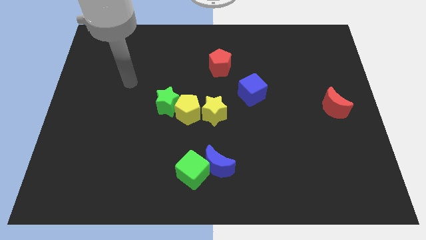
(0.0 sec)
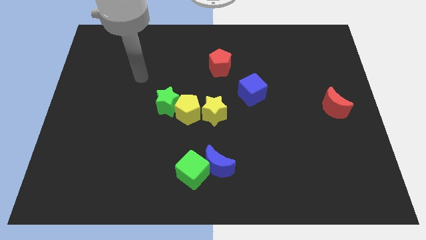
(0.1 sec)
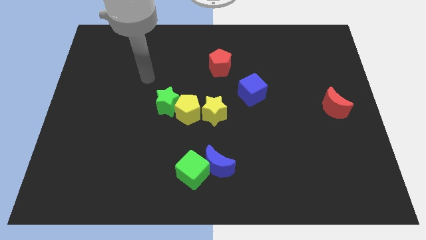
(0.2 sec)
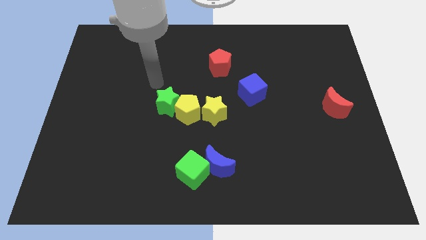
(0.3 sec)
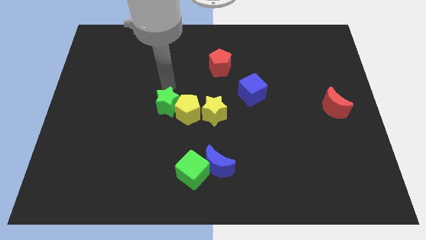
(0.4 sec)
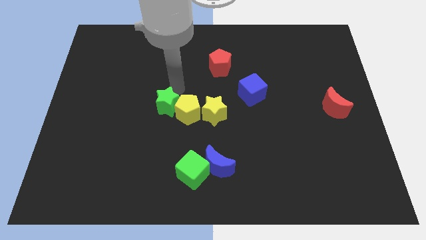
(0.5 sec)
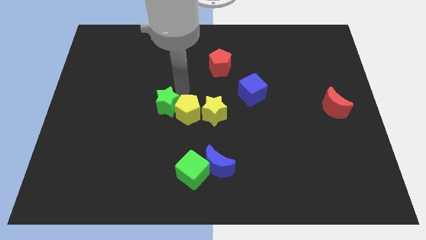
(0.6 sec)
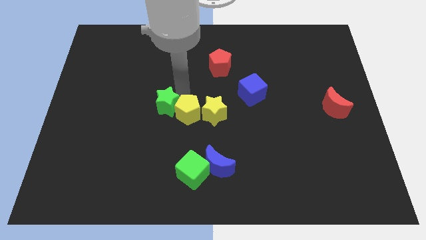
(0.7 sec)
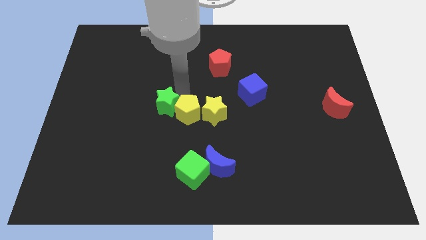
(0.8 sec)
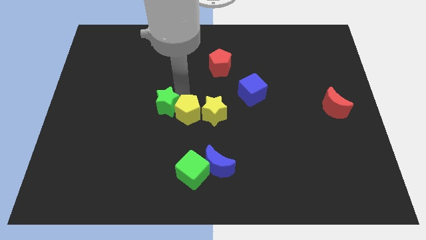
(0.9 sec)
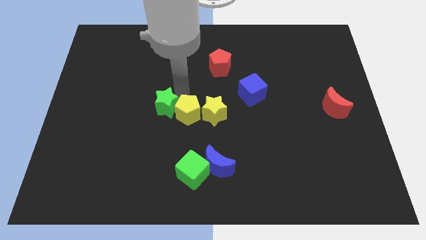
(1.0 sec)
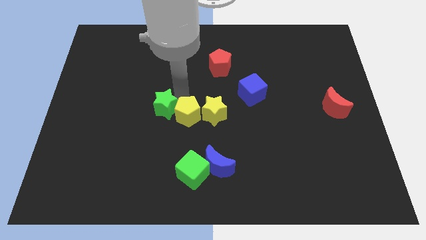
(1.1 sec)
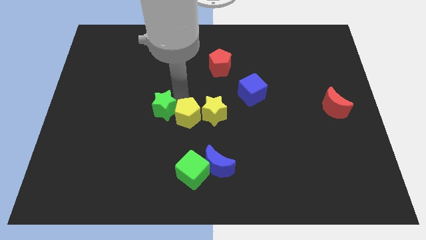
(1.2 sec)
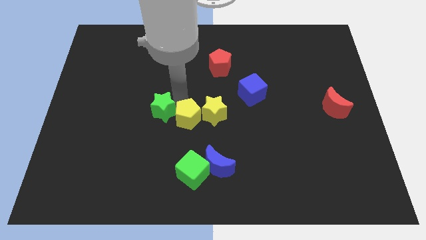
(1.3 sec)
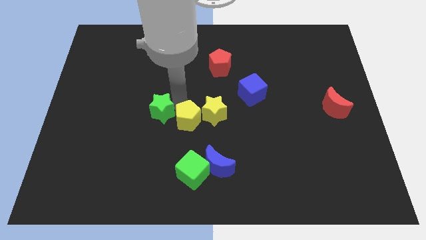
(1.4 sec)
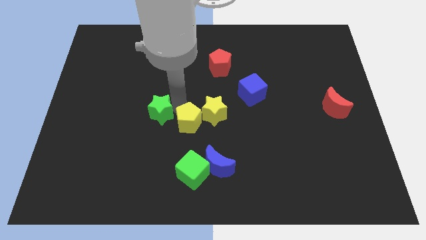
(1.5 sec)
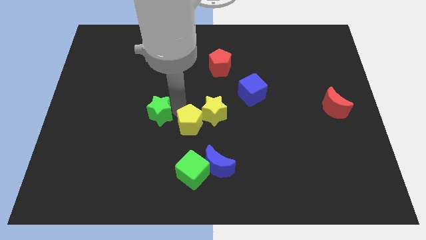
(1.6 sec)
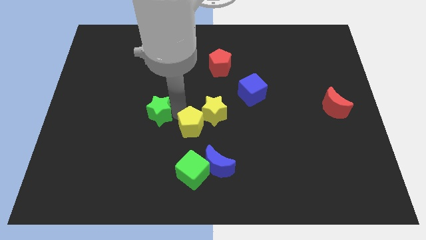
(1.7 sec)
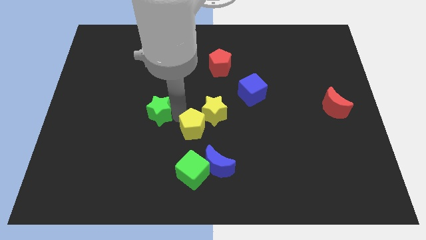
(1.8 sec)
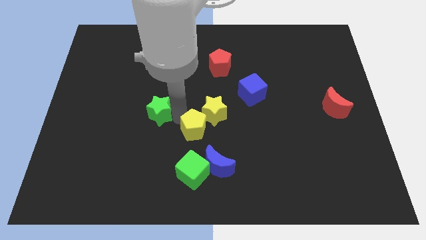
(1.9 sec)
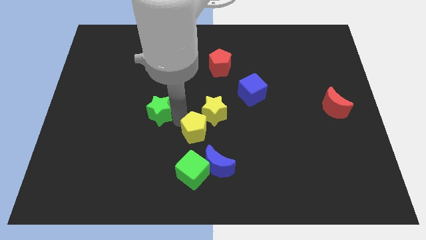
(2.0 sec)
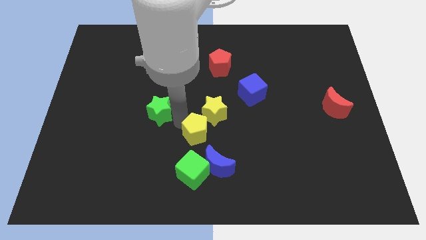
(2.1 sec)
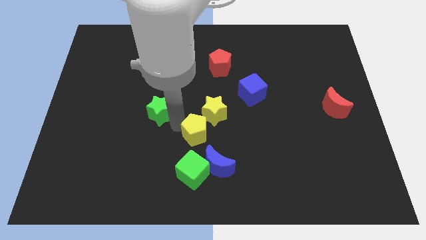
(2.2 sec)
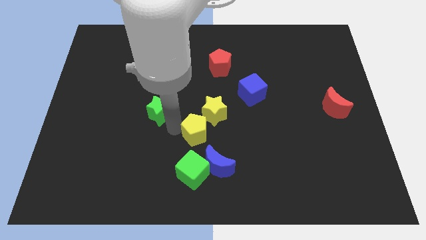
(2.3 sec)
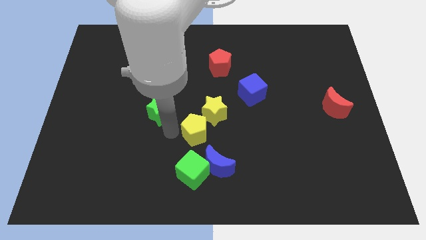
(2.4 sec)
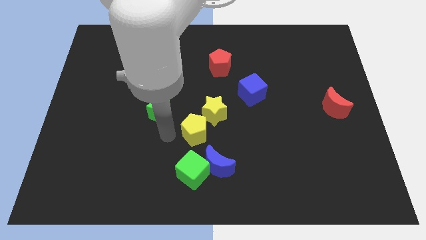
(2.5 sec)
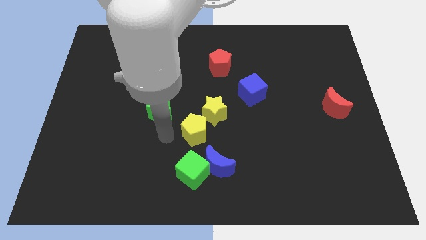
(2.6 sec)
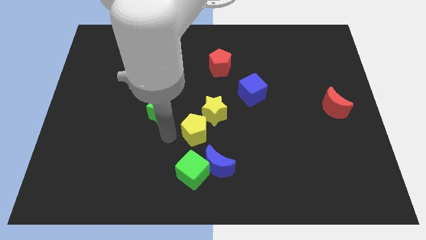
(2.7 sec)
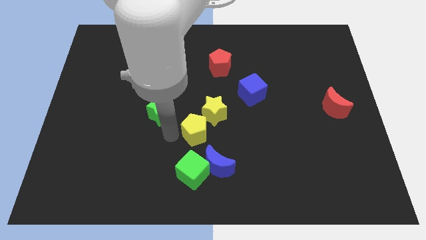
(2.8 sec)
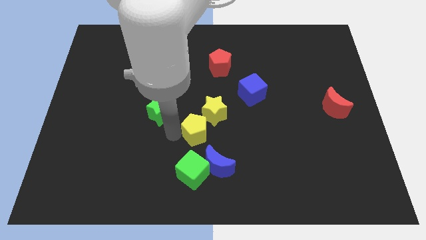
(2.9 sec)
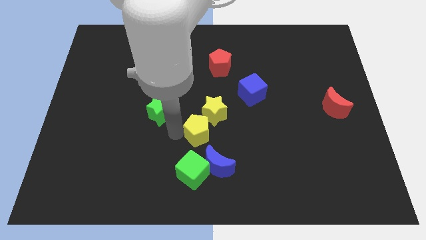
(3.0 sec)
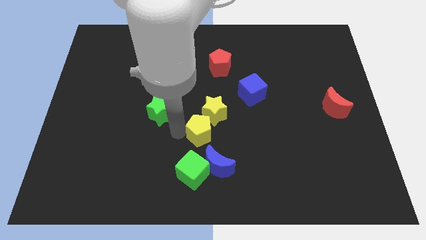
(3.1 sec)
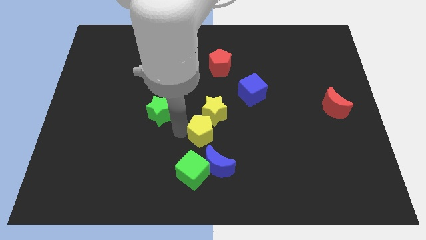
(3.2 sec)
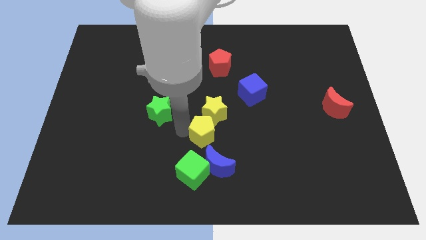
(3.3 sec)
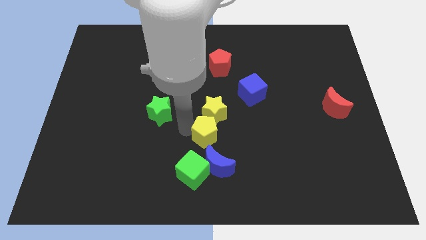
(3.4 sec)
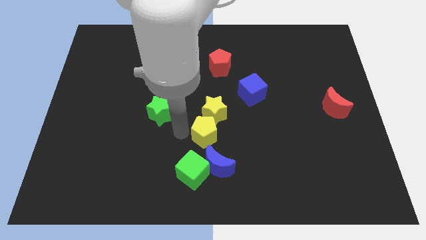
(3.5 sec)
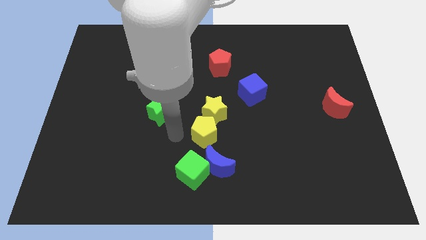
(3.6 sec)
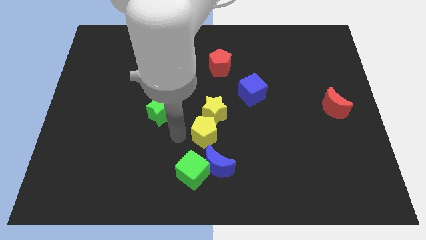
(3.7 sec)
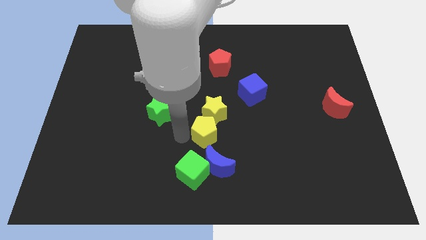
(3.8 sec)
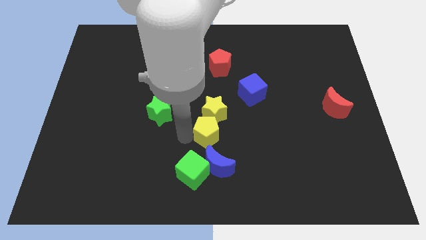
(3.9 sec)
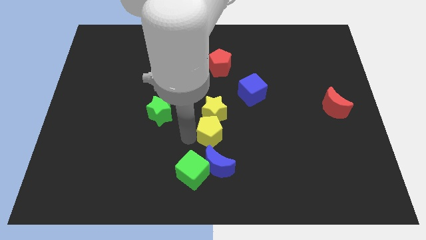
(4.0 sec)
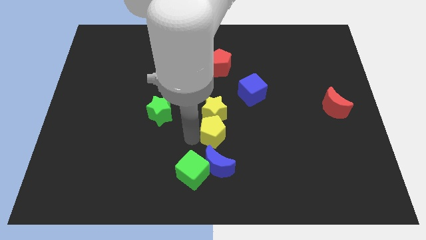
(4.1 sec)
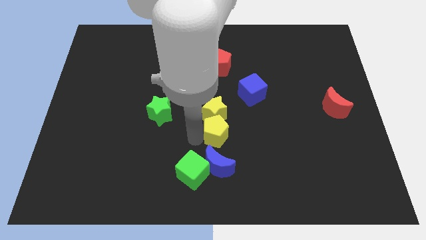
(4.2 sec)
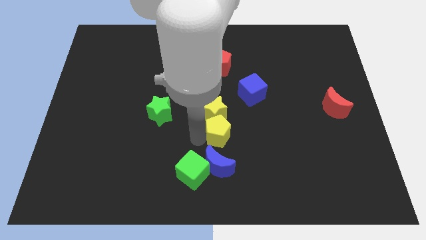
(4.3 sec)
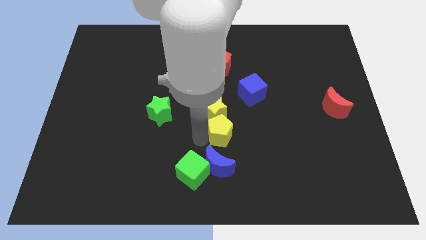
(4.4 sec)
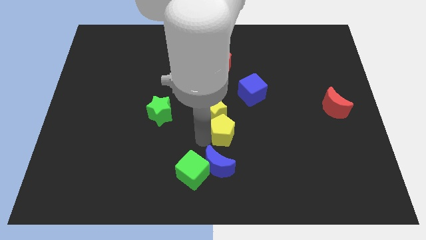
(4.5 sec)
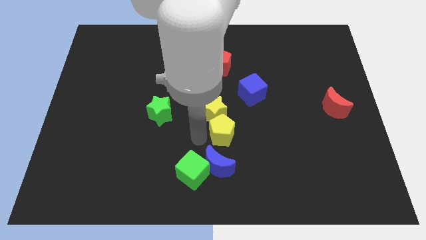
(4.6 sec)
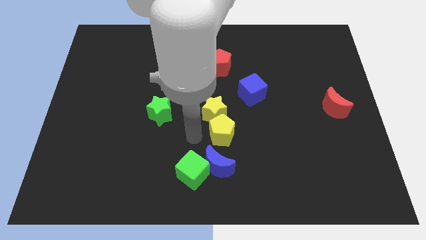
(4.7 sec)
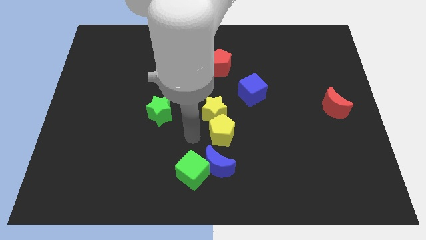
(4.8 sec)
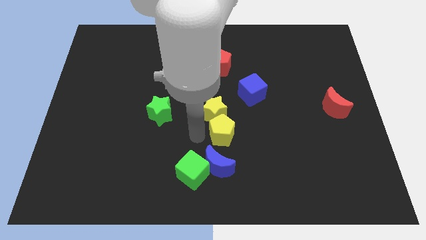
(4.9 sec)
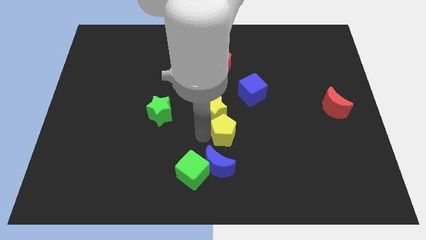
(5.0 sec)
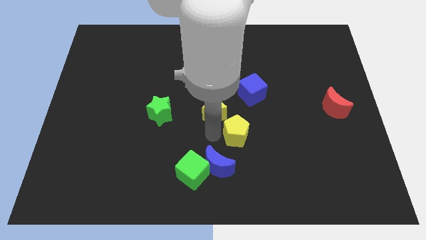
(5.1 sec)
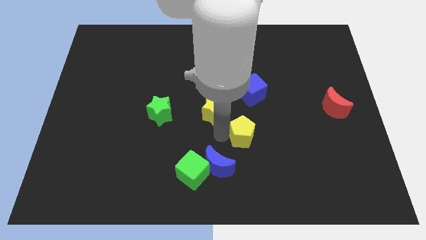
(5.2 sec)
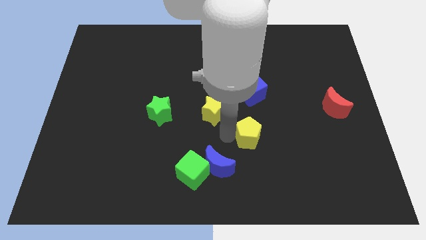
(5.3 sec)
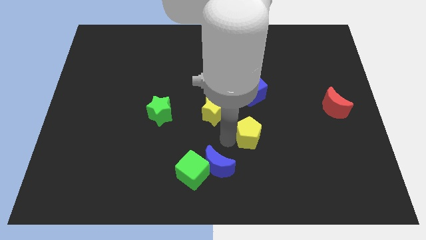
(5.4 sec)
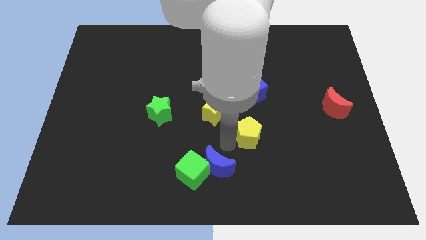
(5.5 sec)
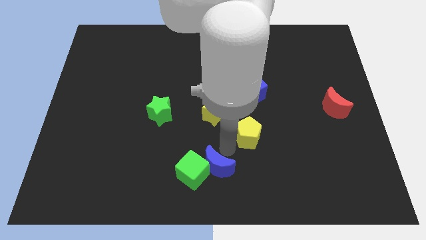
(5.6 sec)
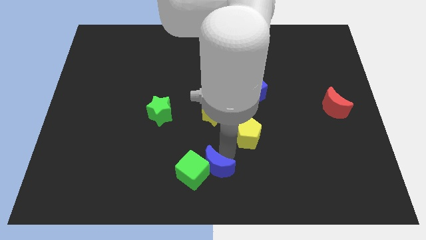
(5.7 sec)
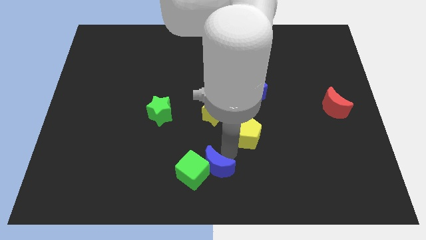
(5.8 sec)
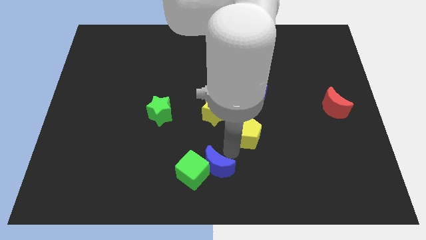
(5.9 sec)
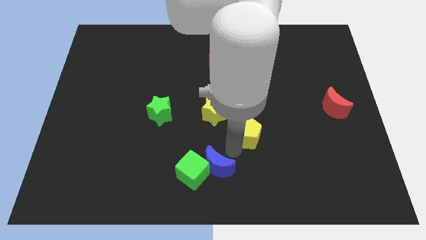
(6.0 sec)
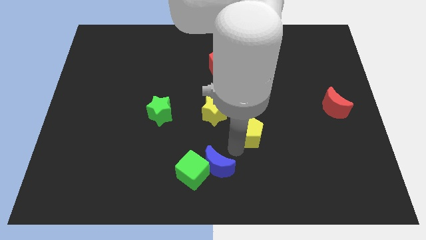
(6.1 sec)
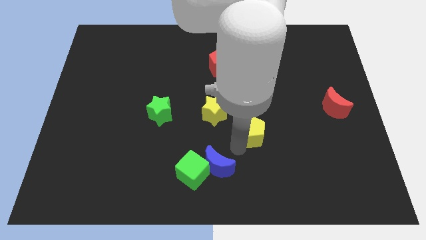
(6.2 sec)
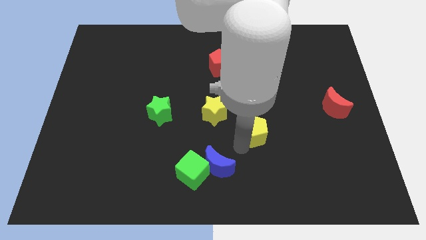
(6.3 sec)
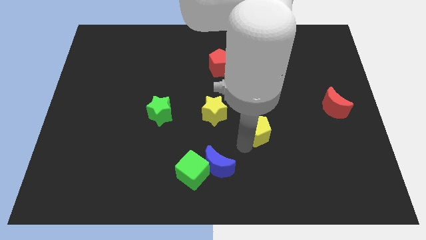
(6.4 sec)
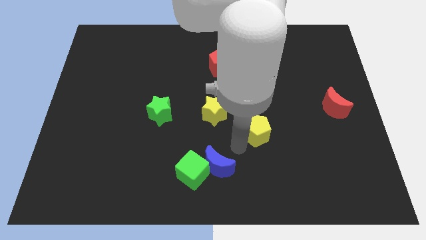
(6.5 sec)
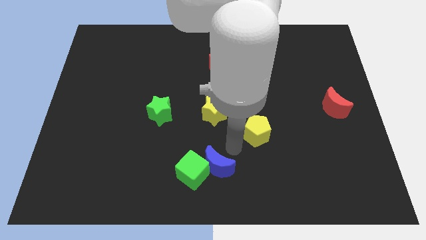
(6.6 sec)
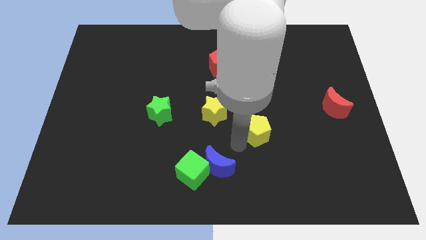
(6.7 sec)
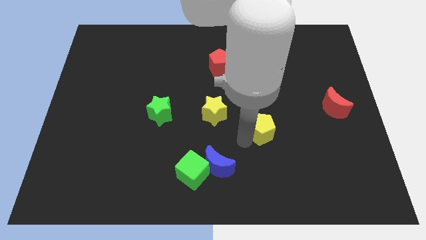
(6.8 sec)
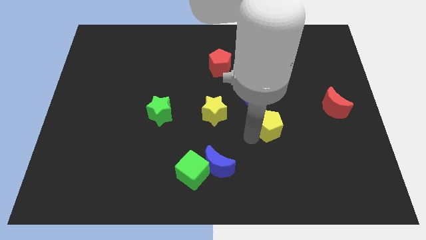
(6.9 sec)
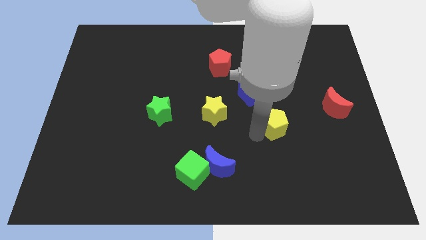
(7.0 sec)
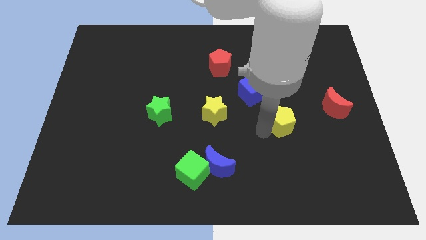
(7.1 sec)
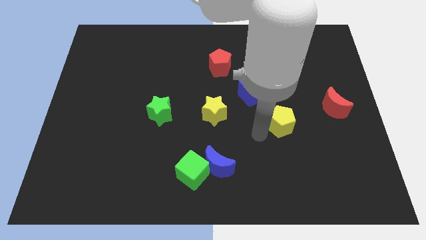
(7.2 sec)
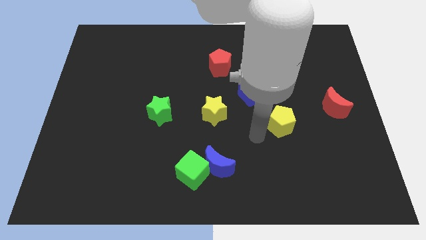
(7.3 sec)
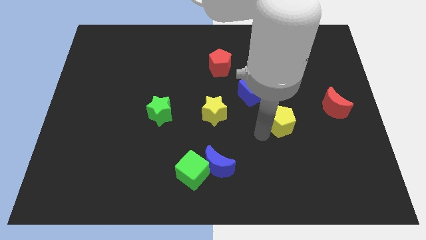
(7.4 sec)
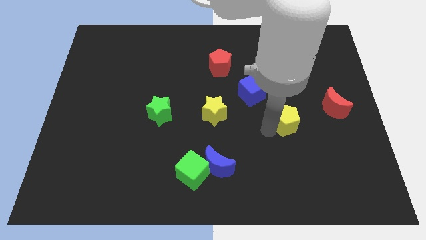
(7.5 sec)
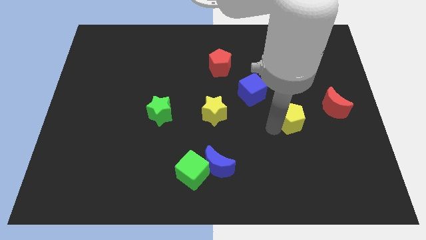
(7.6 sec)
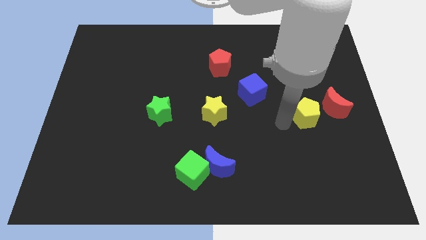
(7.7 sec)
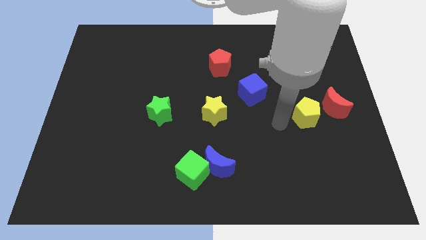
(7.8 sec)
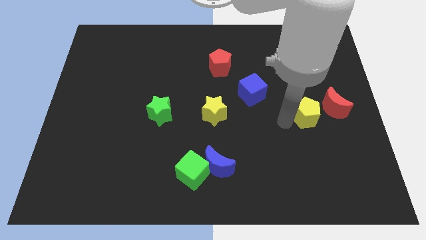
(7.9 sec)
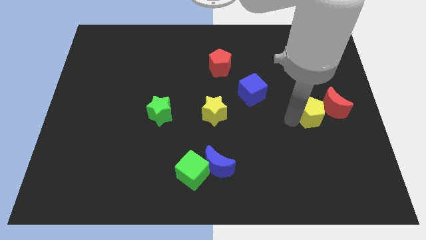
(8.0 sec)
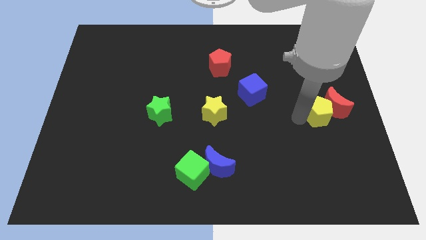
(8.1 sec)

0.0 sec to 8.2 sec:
slide the yellow pentagon close to the red moon
